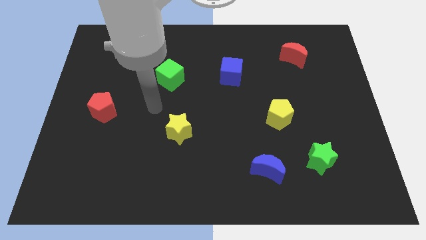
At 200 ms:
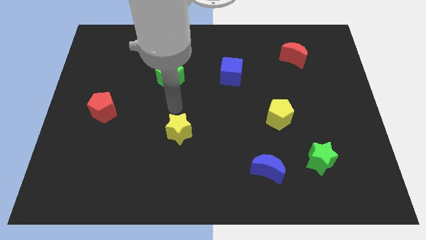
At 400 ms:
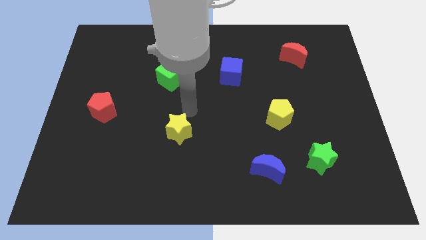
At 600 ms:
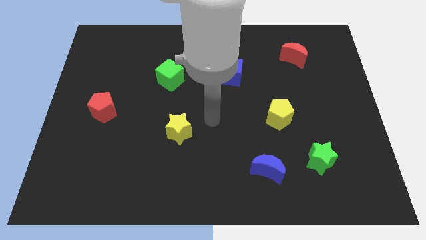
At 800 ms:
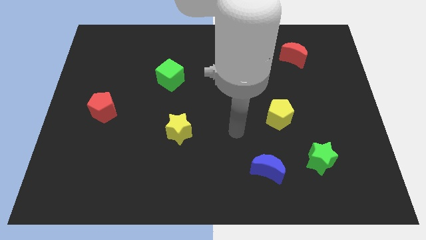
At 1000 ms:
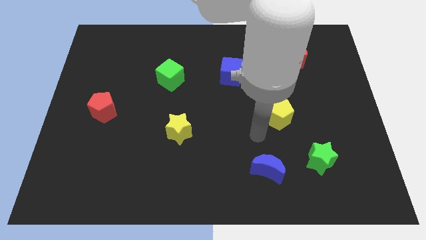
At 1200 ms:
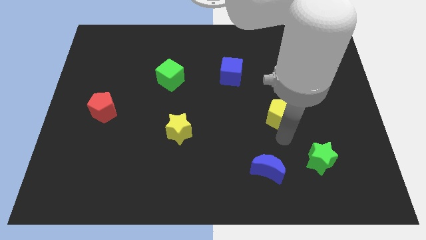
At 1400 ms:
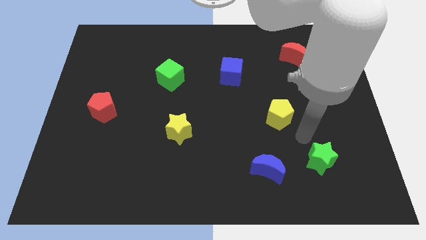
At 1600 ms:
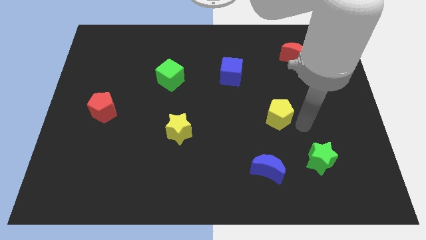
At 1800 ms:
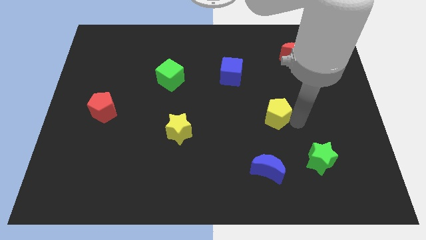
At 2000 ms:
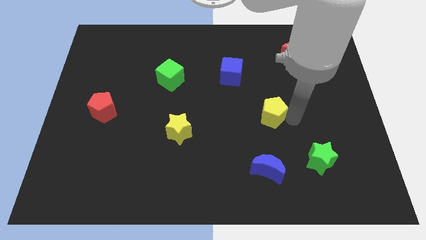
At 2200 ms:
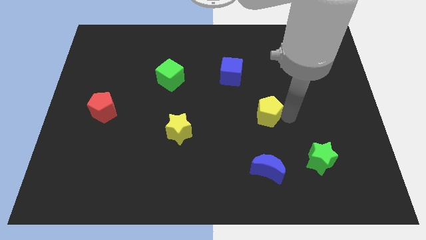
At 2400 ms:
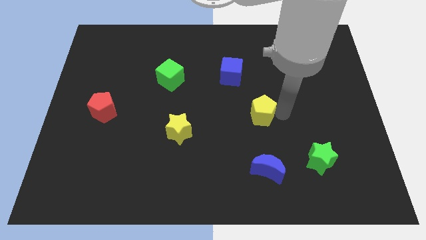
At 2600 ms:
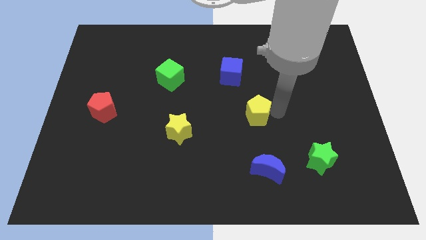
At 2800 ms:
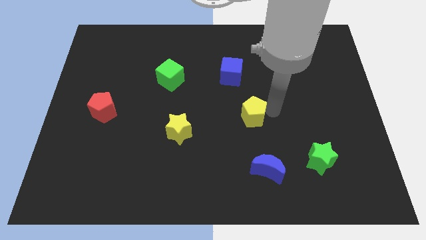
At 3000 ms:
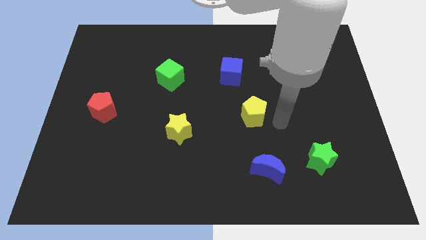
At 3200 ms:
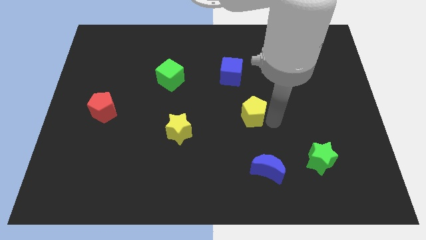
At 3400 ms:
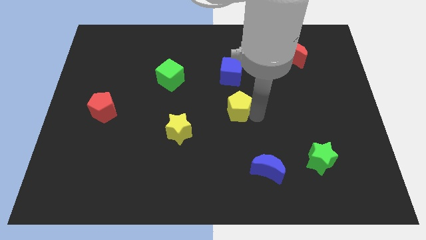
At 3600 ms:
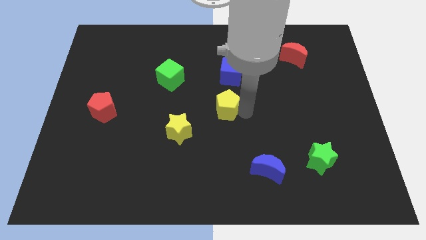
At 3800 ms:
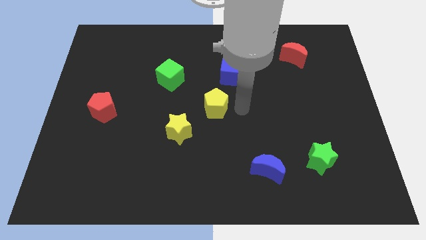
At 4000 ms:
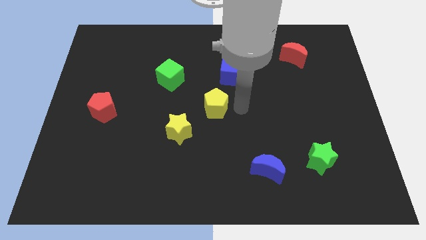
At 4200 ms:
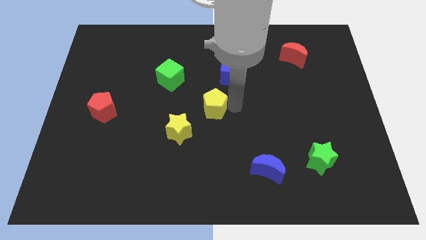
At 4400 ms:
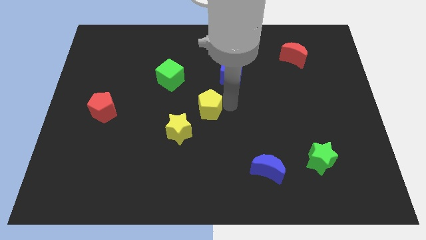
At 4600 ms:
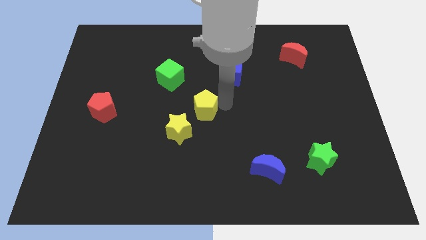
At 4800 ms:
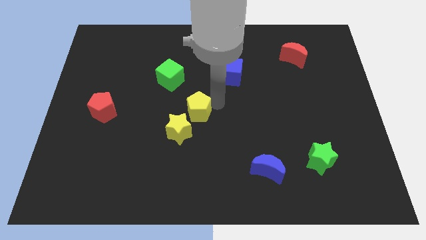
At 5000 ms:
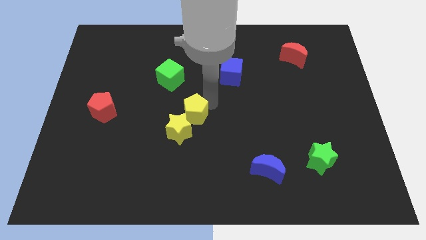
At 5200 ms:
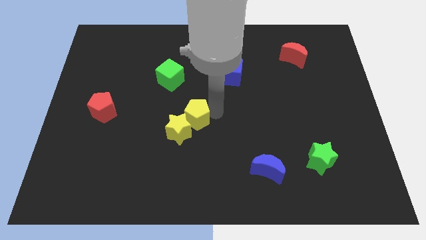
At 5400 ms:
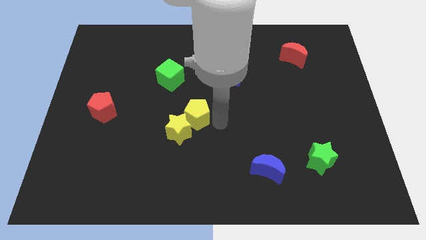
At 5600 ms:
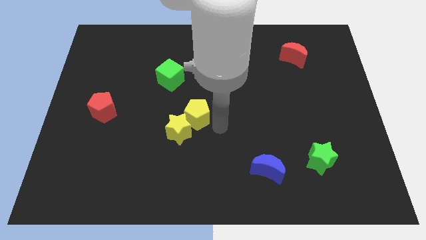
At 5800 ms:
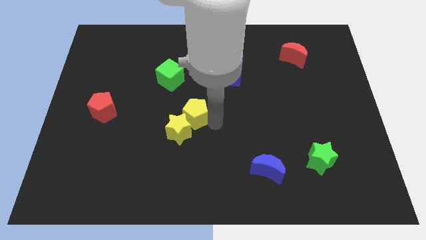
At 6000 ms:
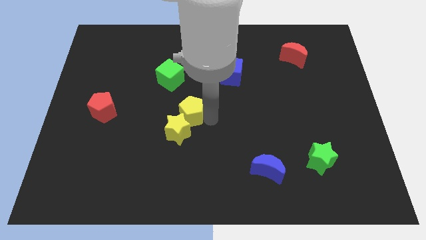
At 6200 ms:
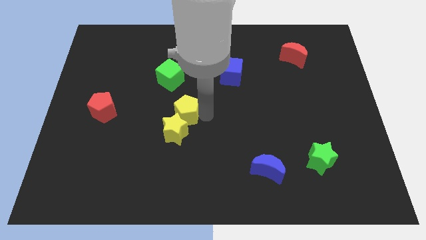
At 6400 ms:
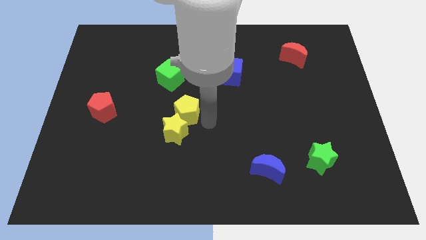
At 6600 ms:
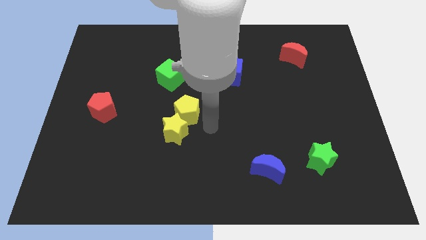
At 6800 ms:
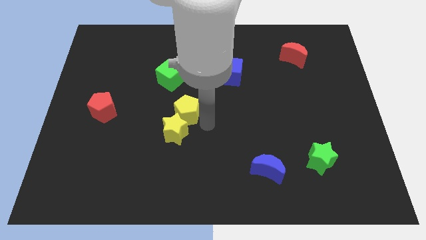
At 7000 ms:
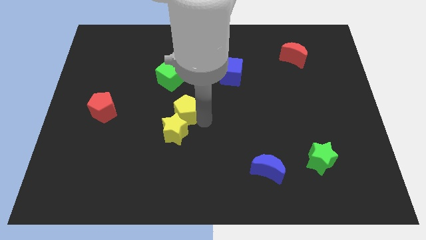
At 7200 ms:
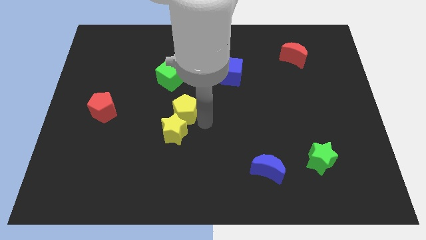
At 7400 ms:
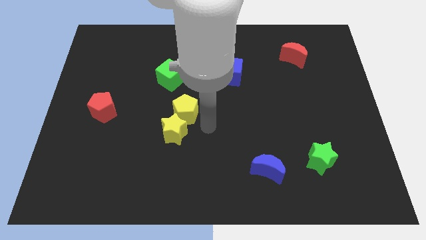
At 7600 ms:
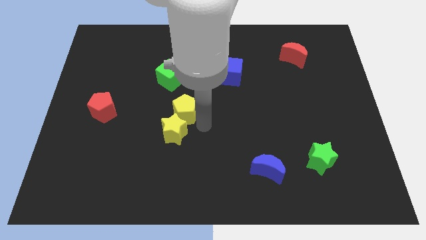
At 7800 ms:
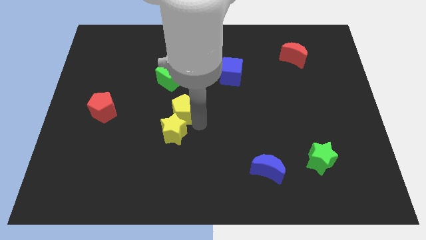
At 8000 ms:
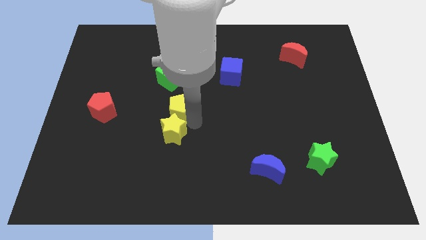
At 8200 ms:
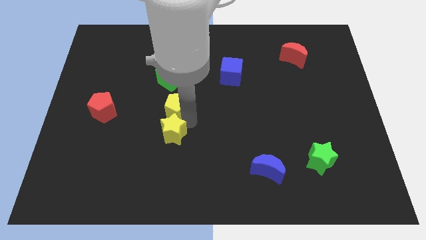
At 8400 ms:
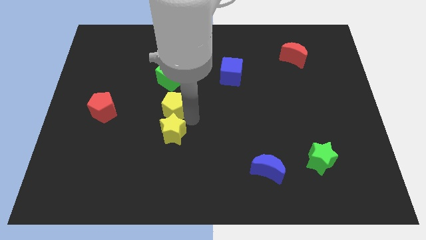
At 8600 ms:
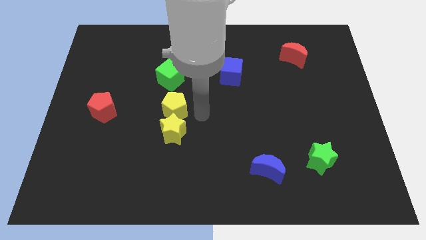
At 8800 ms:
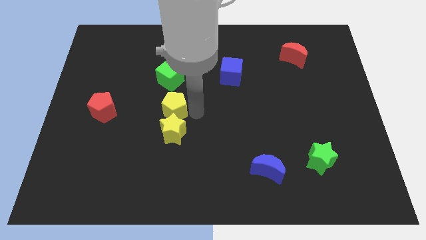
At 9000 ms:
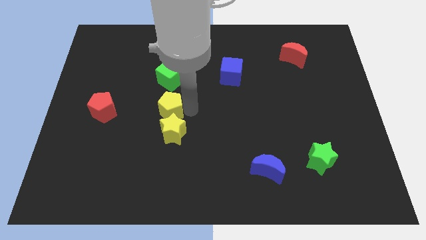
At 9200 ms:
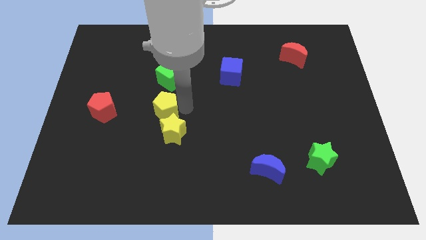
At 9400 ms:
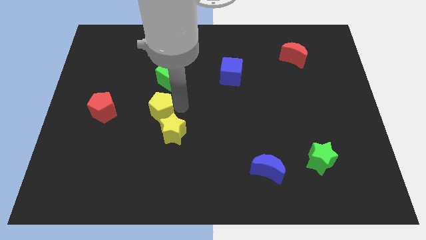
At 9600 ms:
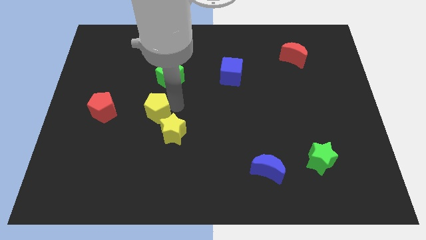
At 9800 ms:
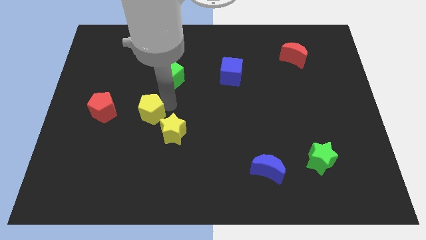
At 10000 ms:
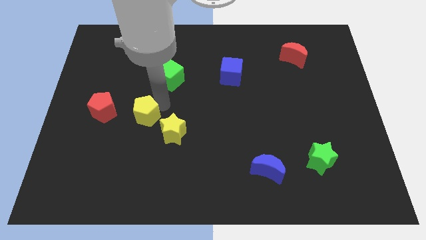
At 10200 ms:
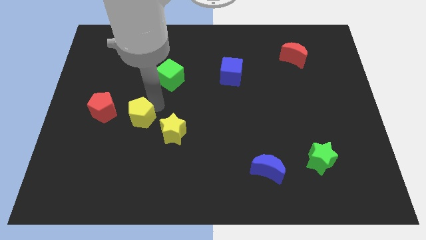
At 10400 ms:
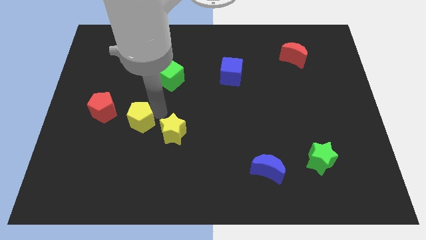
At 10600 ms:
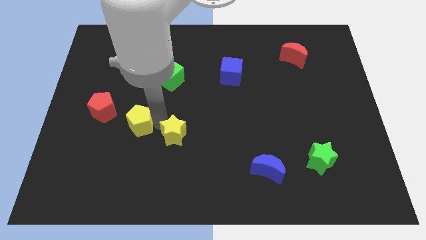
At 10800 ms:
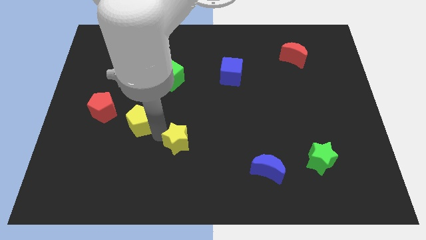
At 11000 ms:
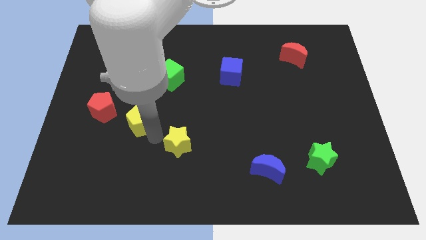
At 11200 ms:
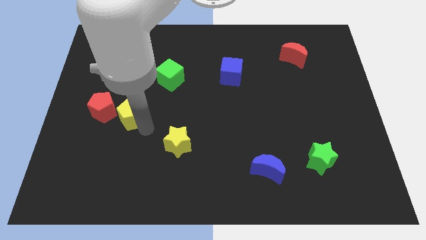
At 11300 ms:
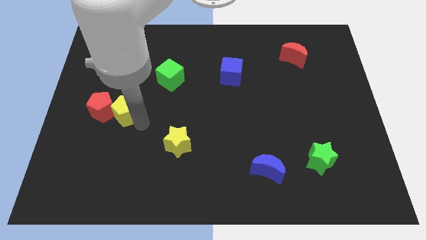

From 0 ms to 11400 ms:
push the yellow pentagon to the red pentagon

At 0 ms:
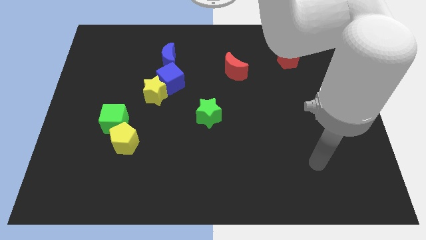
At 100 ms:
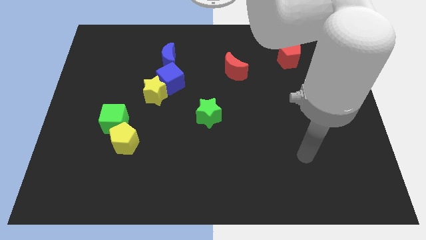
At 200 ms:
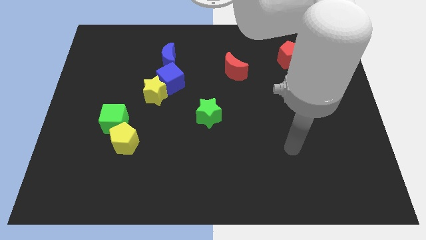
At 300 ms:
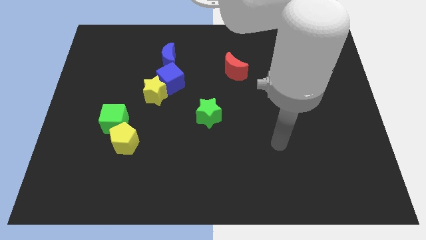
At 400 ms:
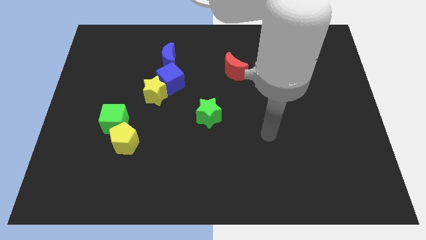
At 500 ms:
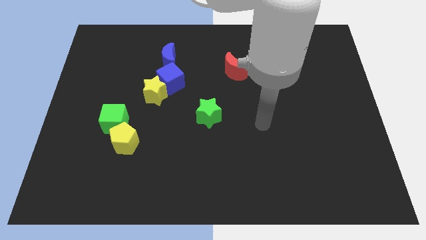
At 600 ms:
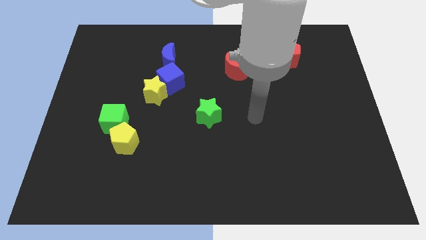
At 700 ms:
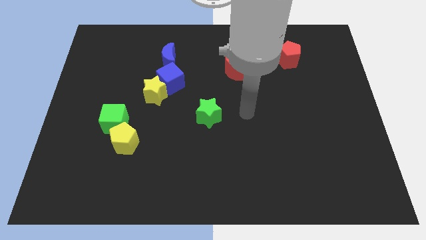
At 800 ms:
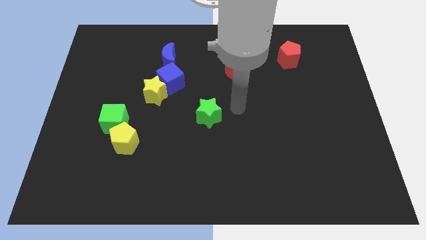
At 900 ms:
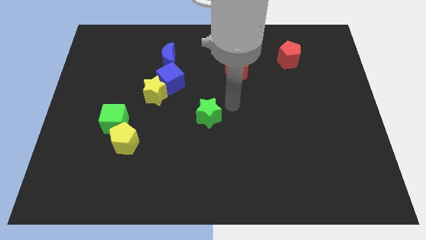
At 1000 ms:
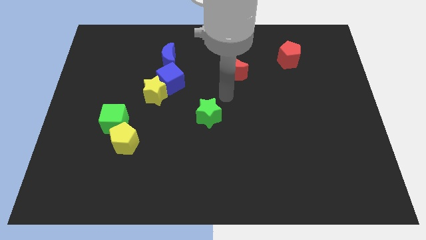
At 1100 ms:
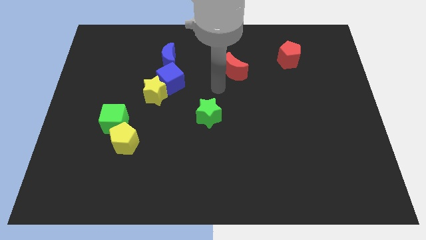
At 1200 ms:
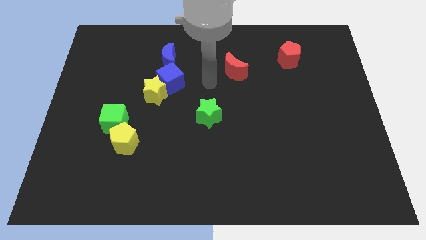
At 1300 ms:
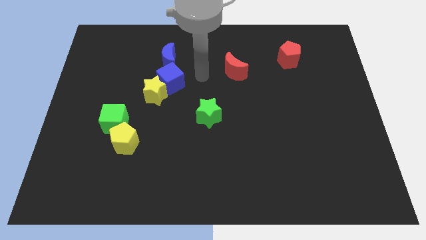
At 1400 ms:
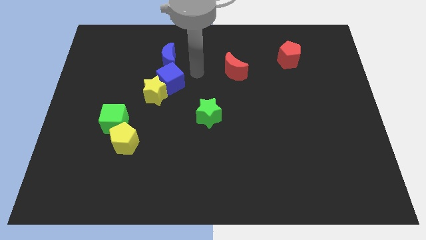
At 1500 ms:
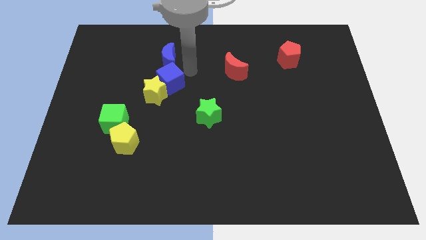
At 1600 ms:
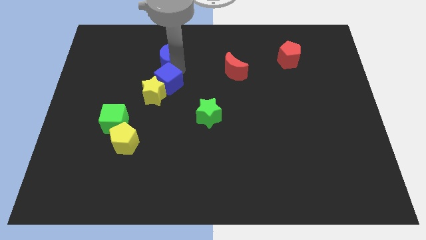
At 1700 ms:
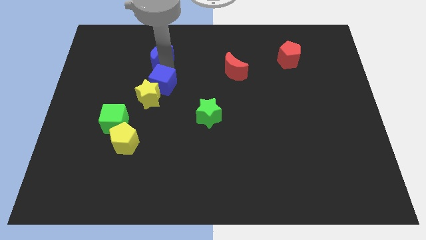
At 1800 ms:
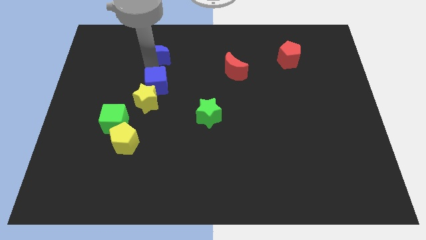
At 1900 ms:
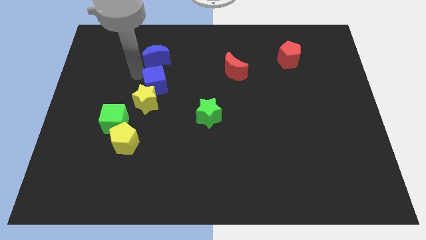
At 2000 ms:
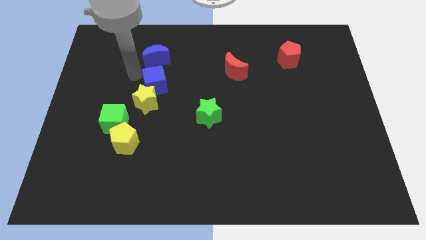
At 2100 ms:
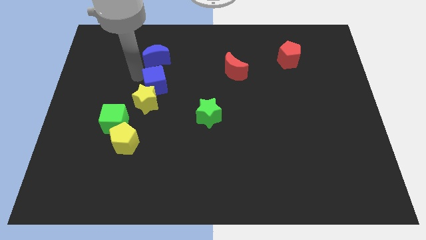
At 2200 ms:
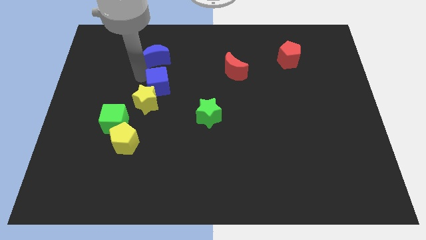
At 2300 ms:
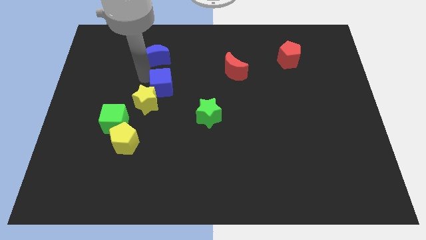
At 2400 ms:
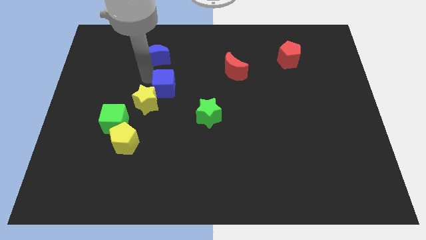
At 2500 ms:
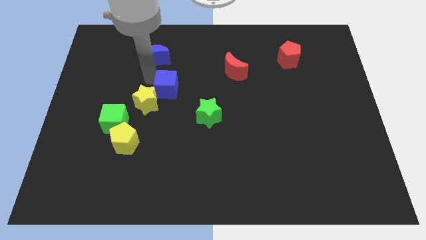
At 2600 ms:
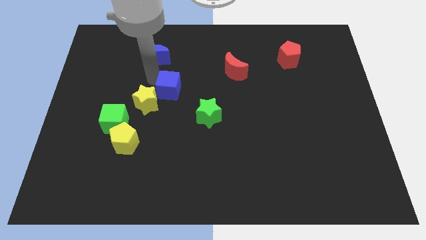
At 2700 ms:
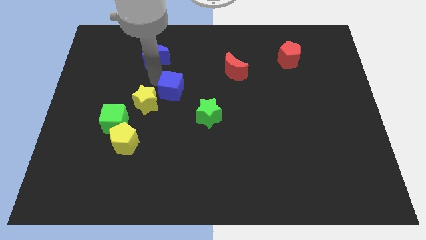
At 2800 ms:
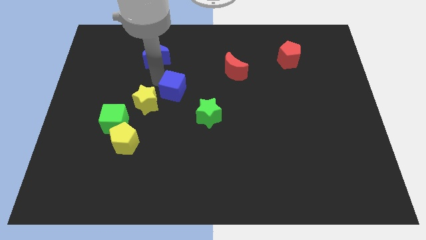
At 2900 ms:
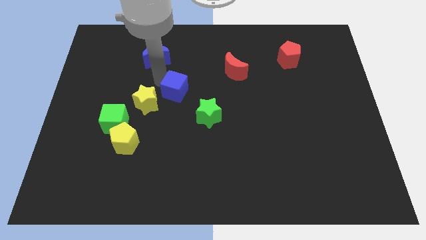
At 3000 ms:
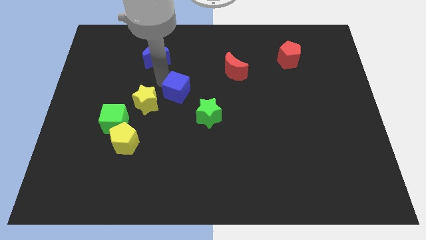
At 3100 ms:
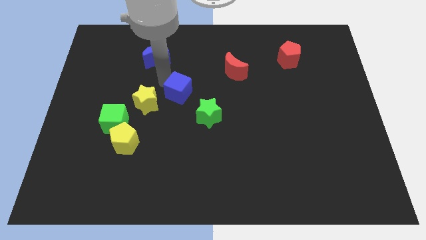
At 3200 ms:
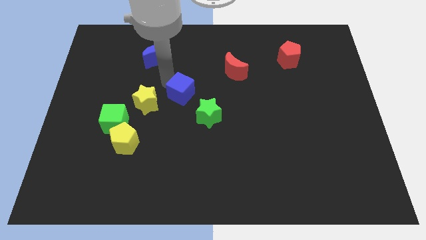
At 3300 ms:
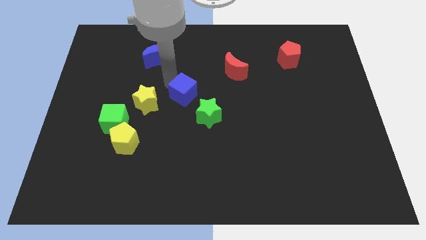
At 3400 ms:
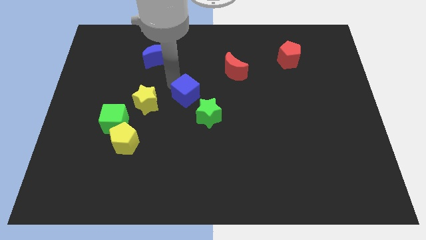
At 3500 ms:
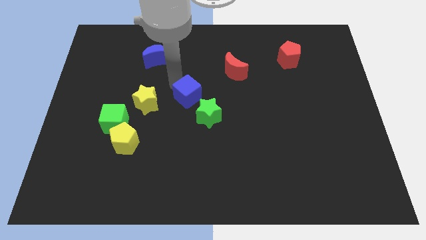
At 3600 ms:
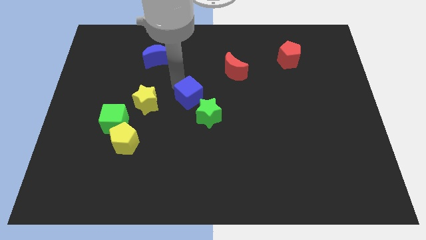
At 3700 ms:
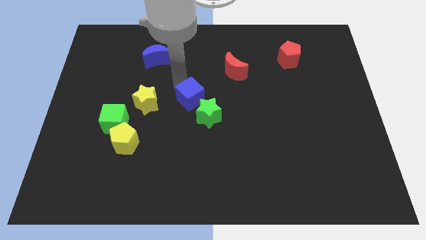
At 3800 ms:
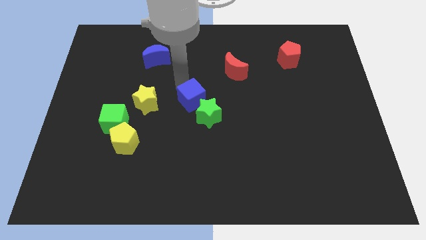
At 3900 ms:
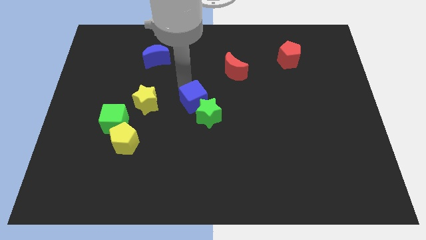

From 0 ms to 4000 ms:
slide the blue cube next to the green star
